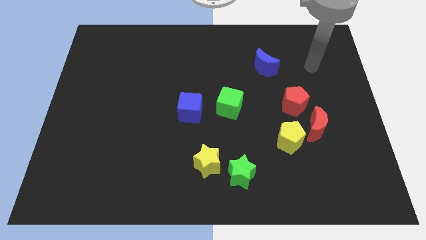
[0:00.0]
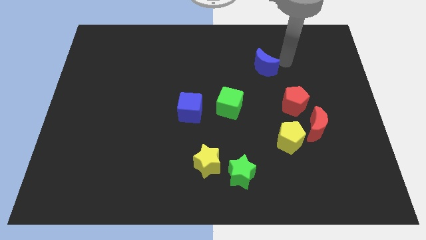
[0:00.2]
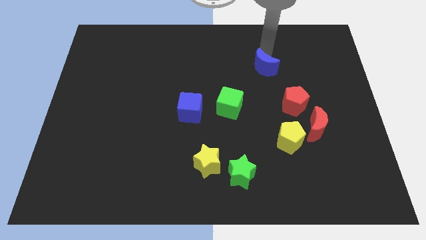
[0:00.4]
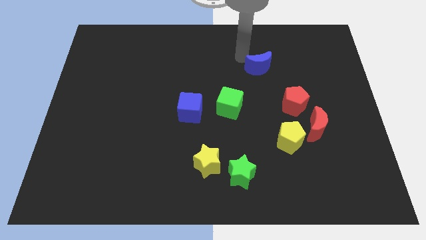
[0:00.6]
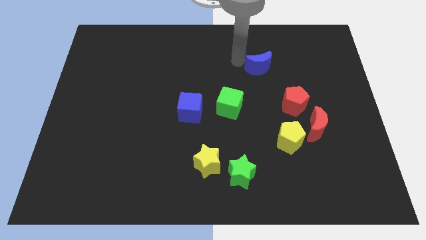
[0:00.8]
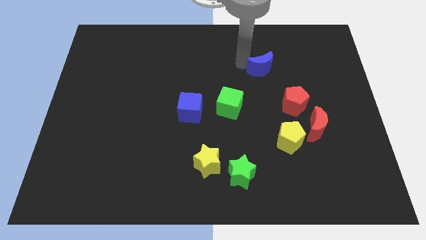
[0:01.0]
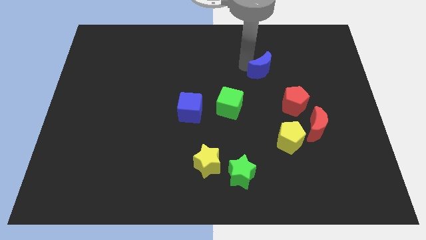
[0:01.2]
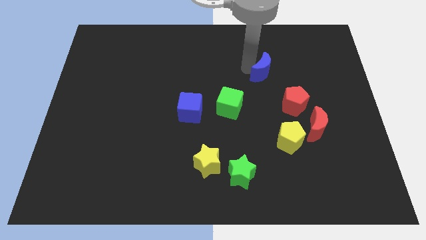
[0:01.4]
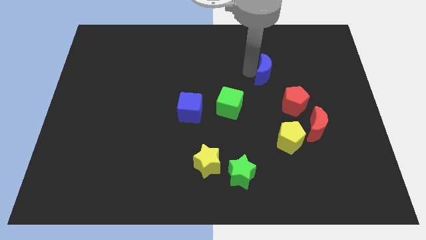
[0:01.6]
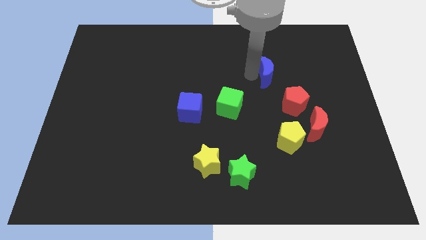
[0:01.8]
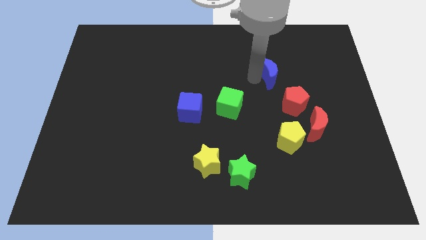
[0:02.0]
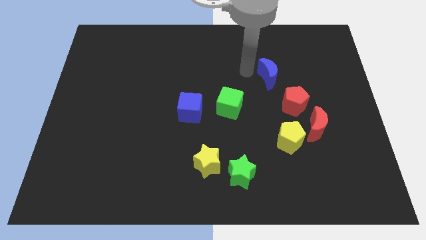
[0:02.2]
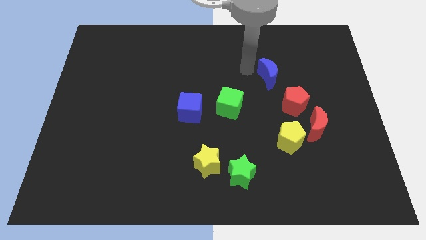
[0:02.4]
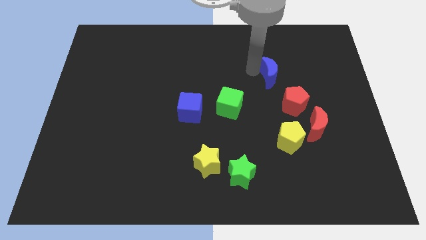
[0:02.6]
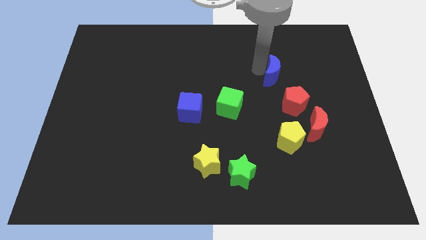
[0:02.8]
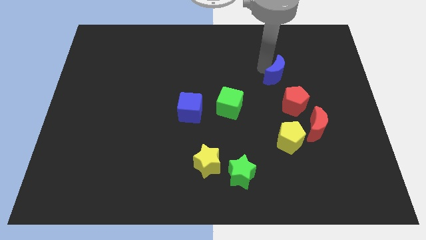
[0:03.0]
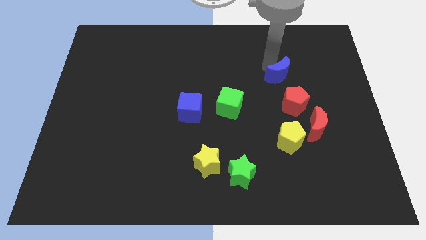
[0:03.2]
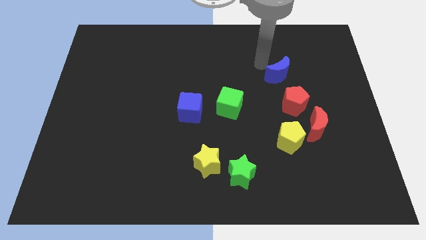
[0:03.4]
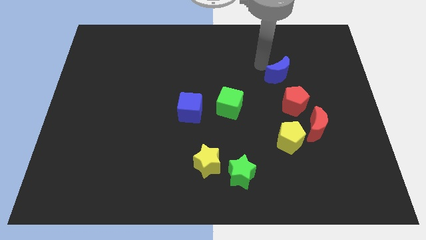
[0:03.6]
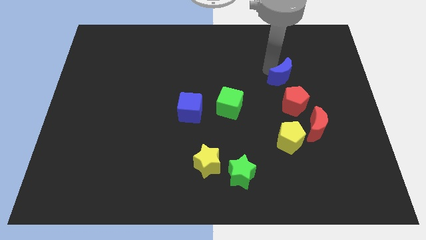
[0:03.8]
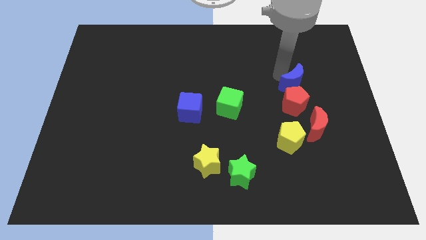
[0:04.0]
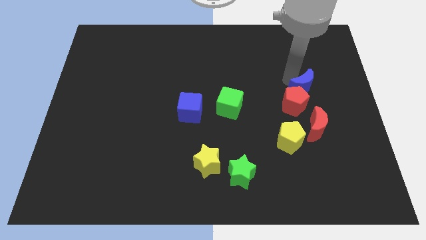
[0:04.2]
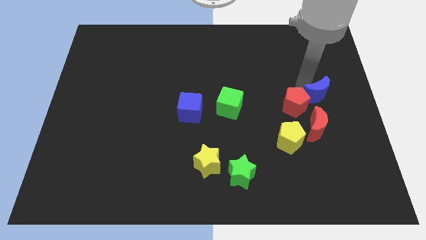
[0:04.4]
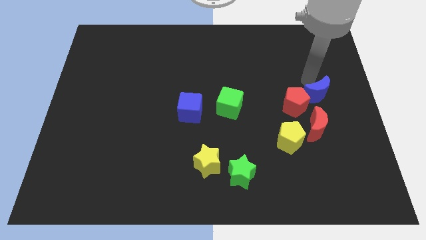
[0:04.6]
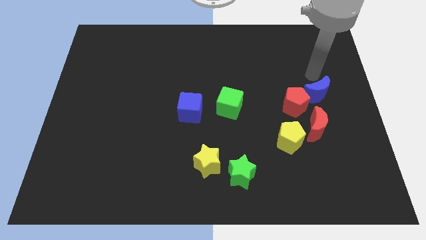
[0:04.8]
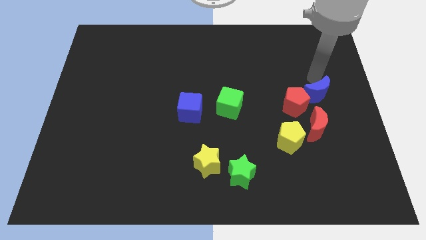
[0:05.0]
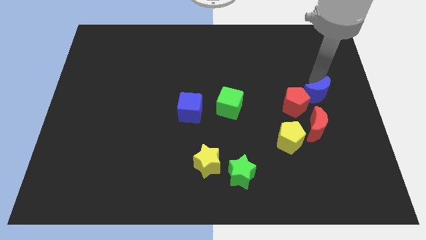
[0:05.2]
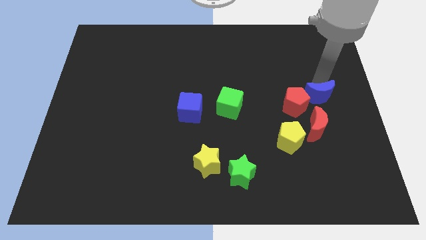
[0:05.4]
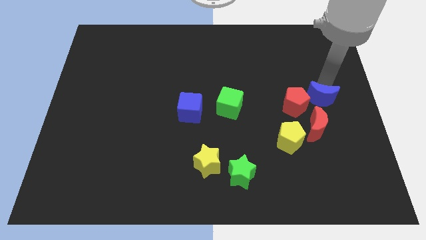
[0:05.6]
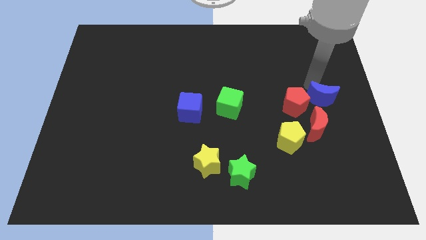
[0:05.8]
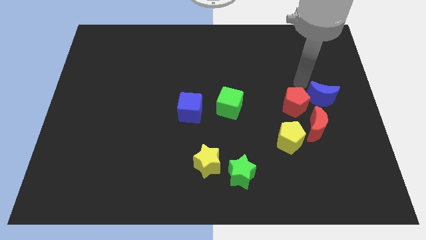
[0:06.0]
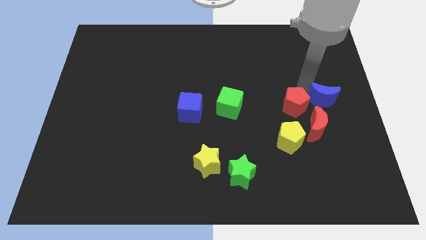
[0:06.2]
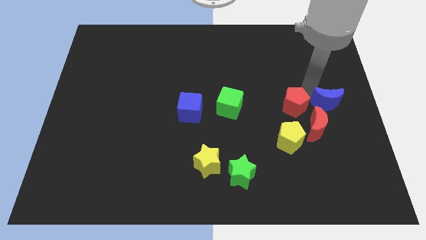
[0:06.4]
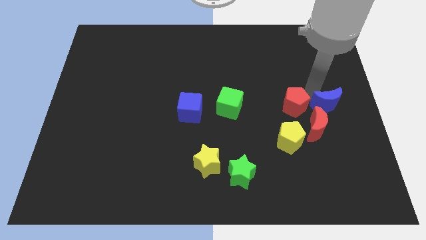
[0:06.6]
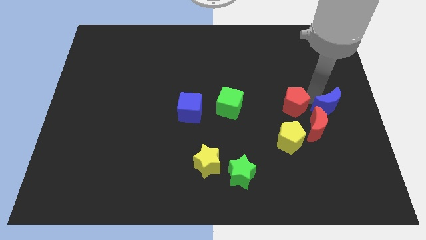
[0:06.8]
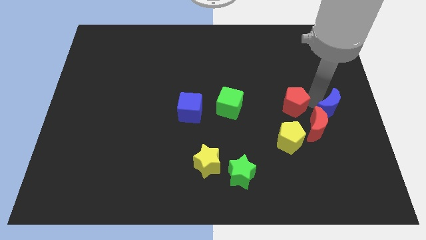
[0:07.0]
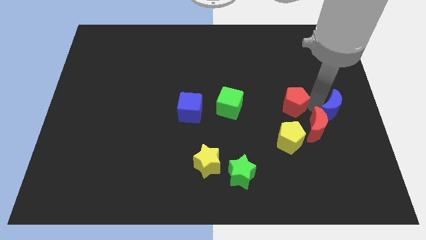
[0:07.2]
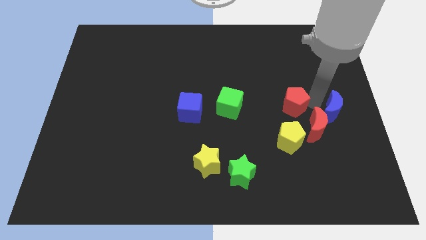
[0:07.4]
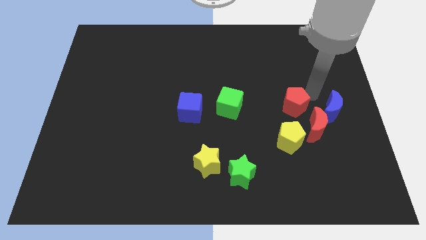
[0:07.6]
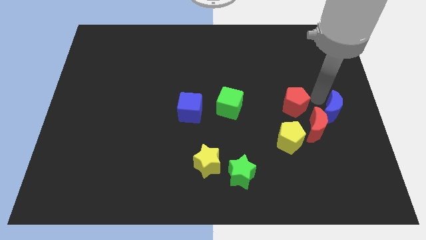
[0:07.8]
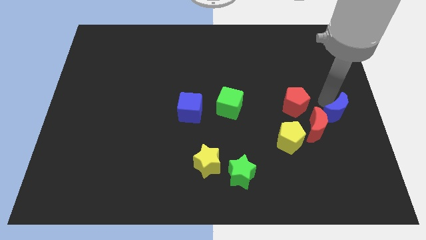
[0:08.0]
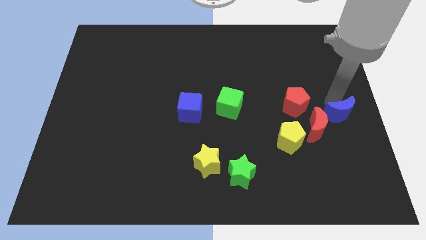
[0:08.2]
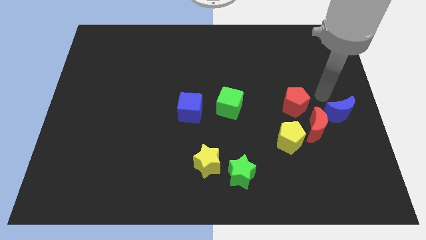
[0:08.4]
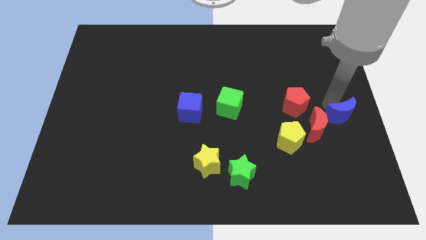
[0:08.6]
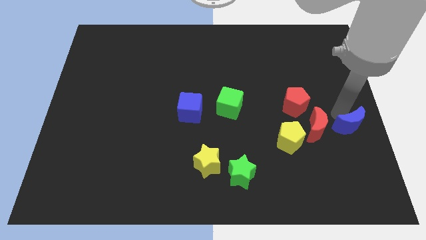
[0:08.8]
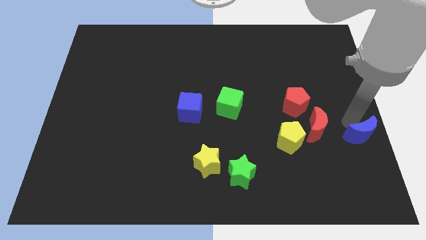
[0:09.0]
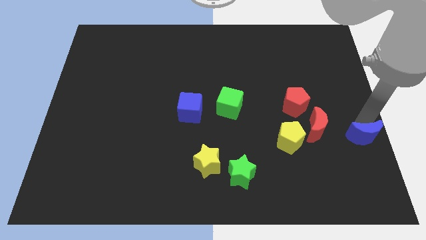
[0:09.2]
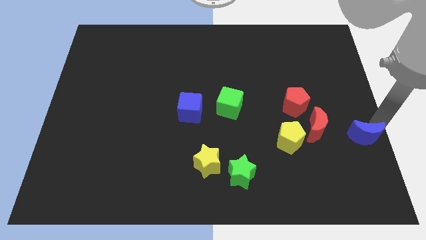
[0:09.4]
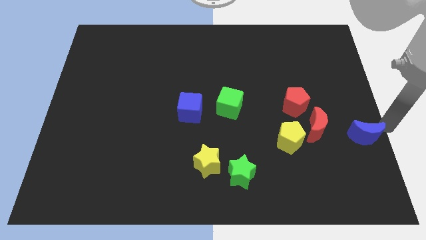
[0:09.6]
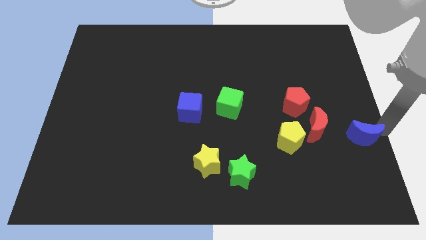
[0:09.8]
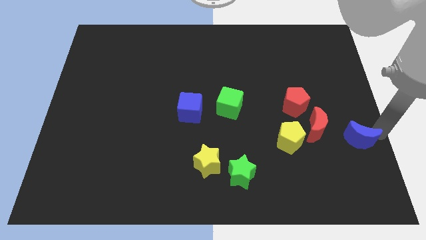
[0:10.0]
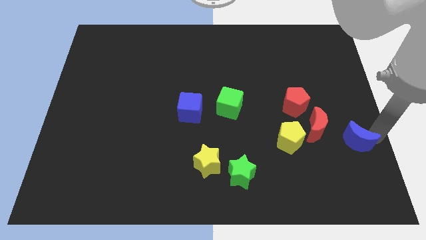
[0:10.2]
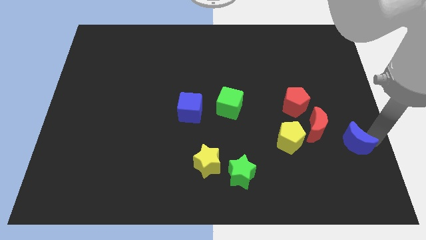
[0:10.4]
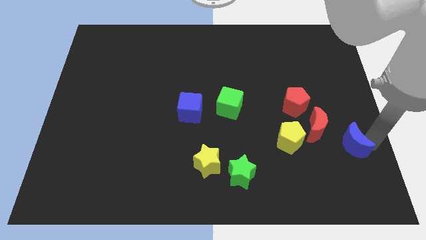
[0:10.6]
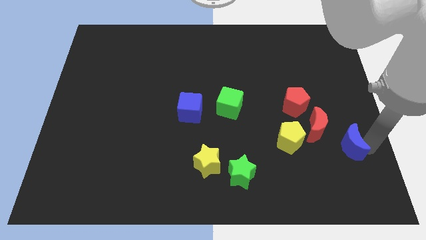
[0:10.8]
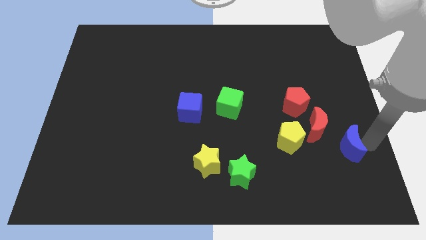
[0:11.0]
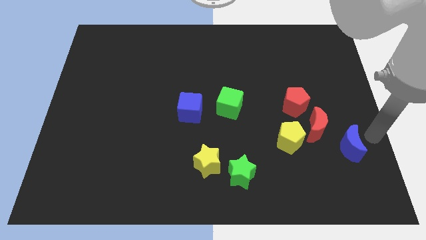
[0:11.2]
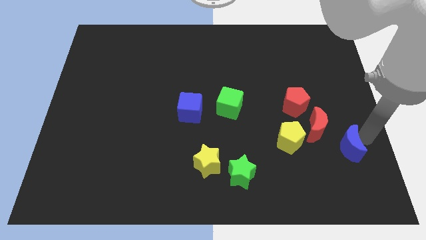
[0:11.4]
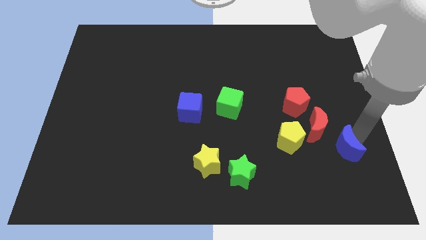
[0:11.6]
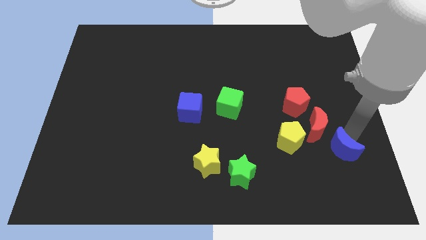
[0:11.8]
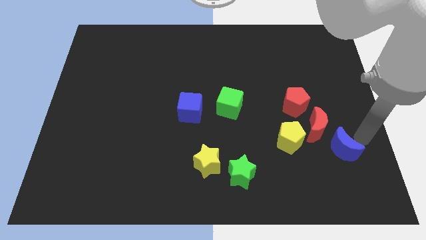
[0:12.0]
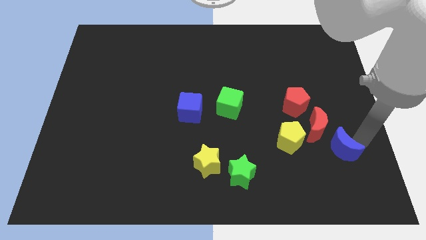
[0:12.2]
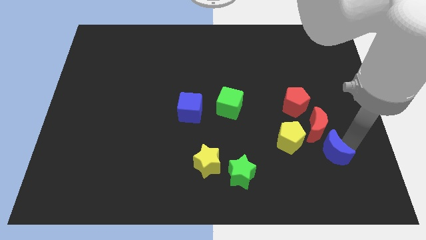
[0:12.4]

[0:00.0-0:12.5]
slide the blue moon to the bottom right side of the yellow pentagon
